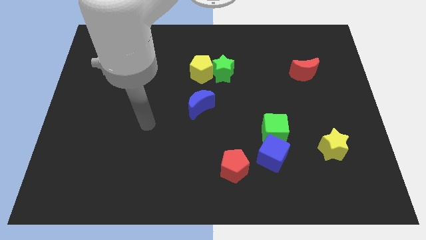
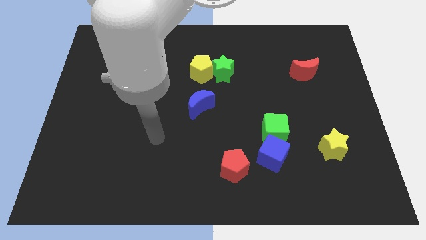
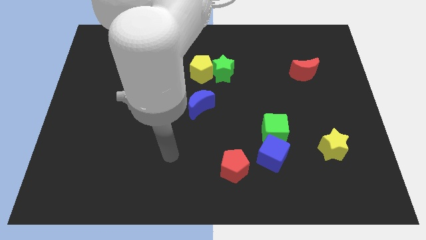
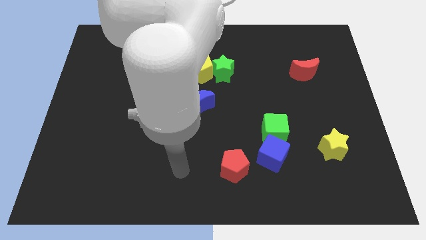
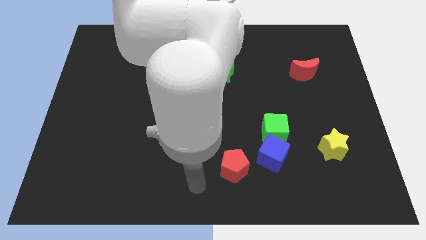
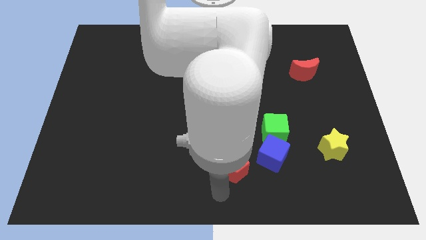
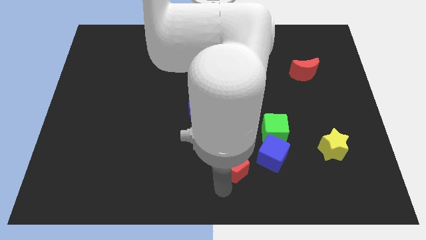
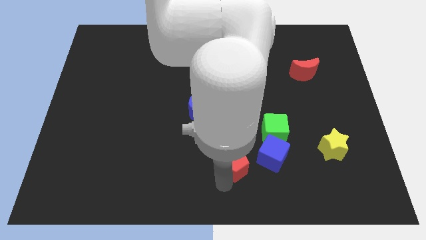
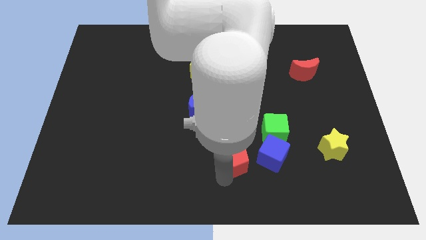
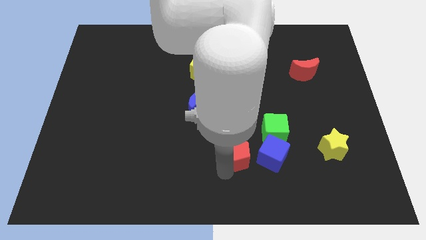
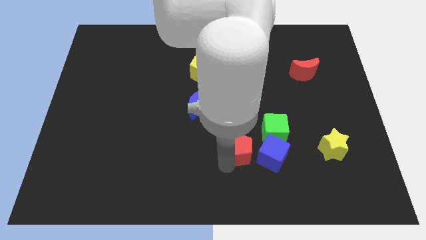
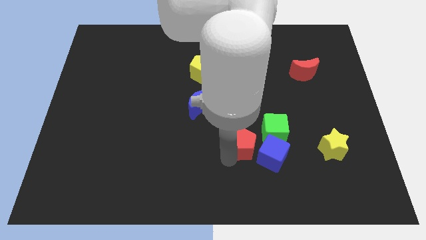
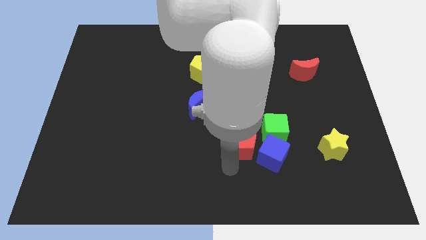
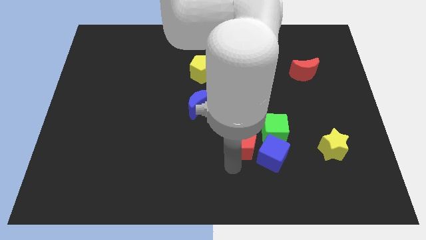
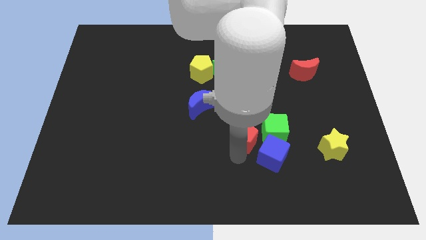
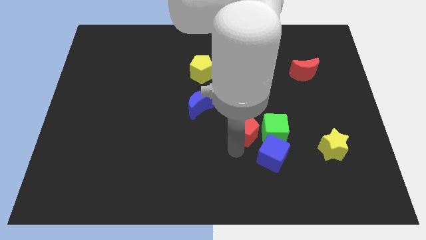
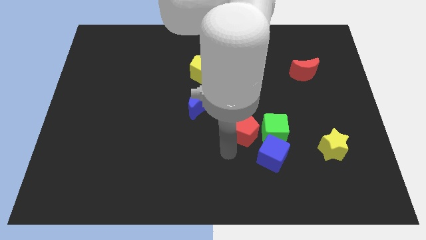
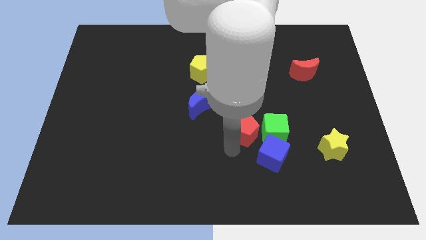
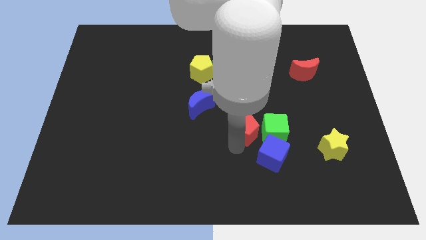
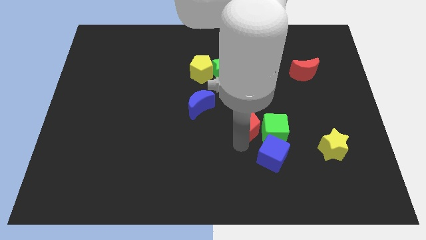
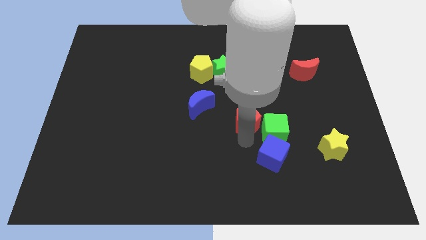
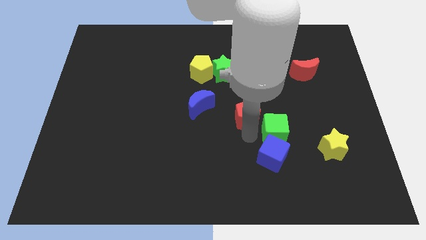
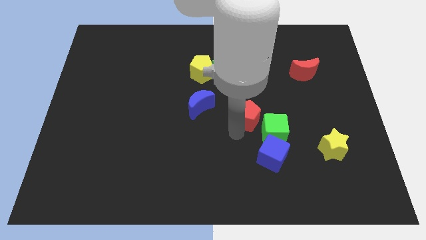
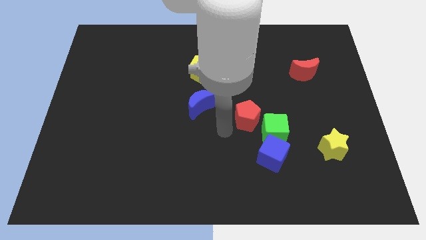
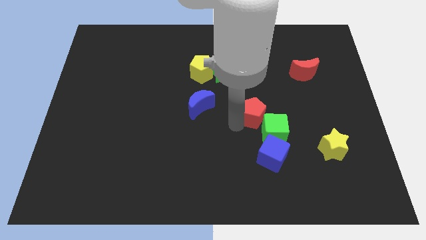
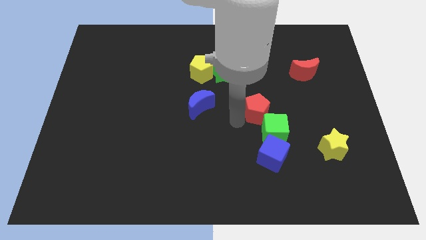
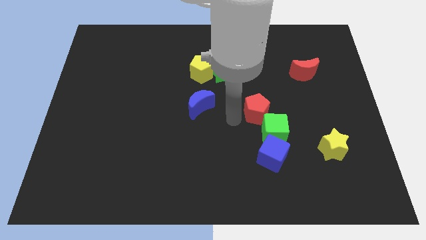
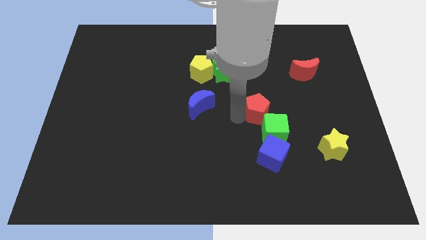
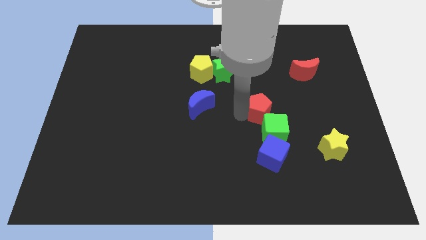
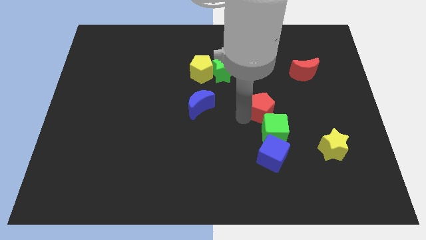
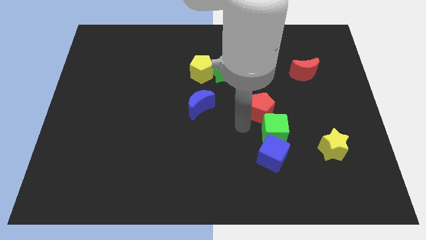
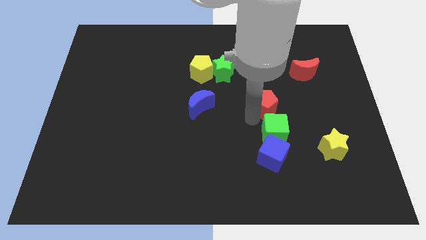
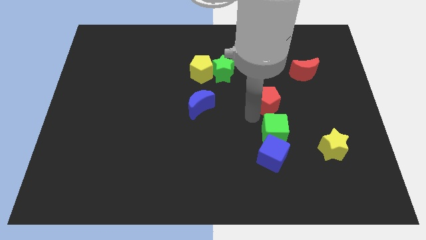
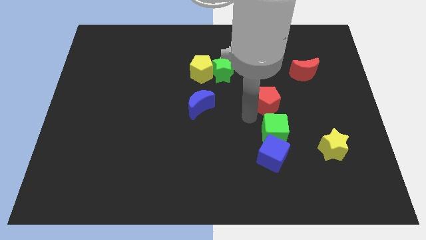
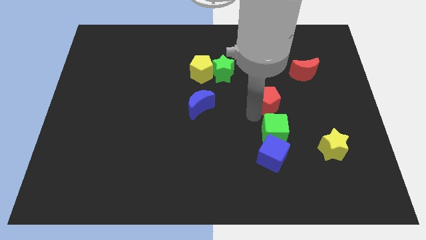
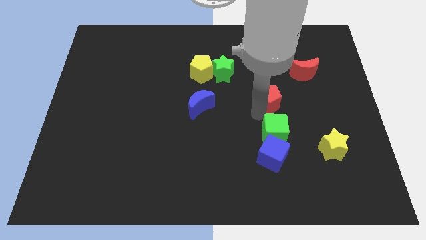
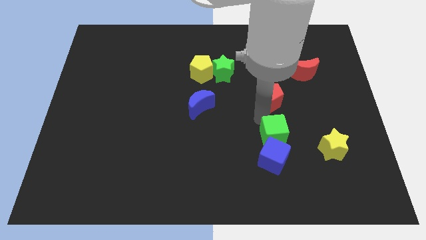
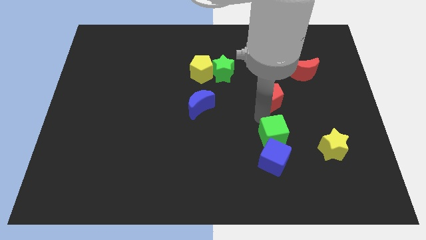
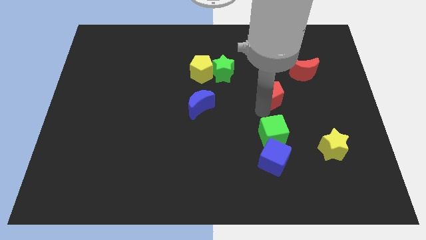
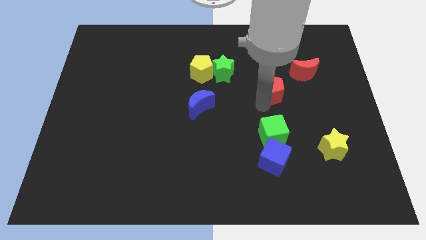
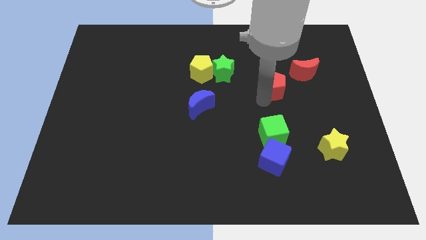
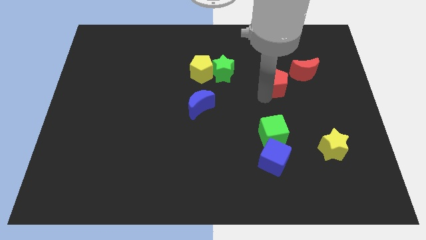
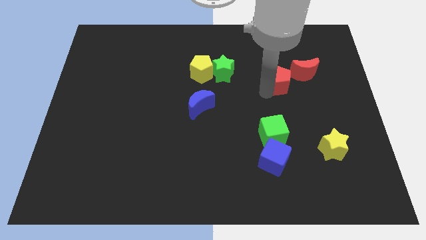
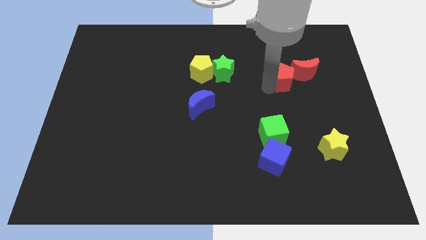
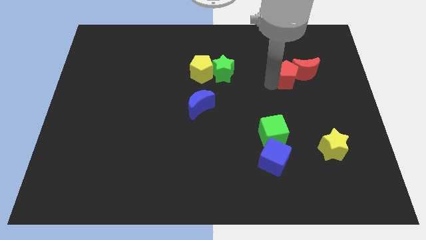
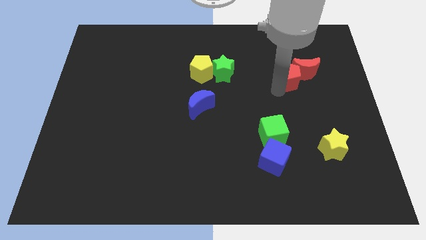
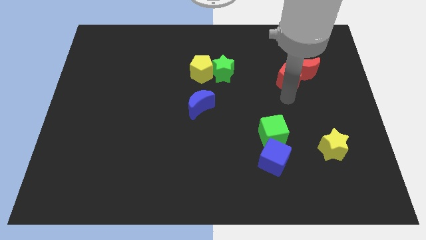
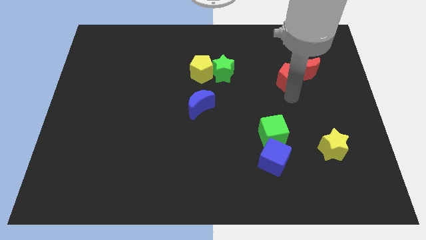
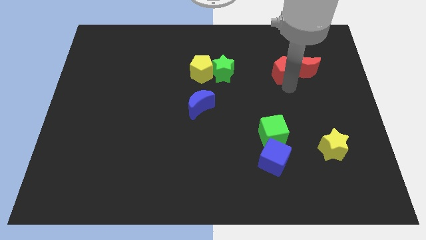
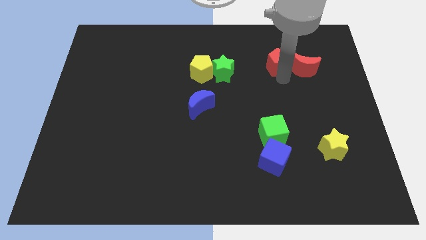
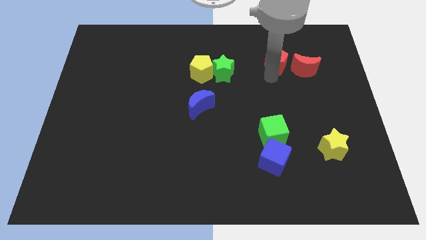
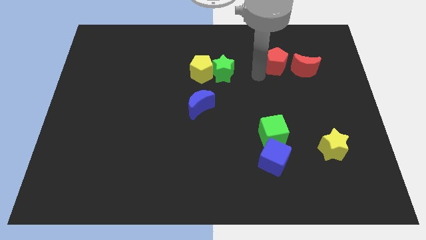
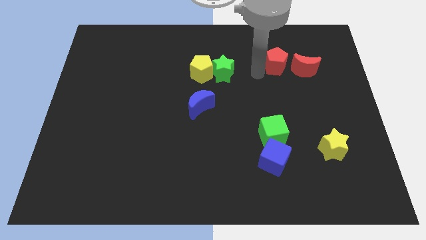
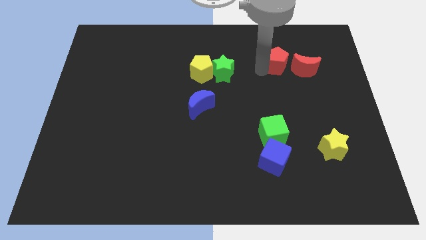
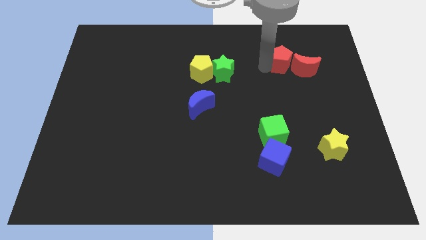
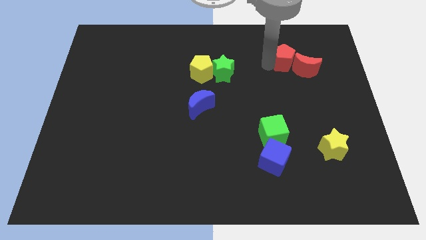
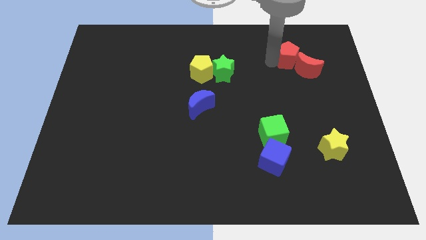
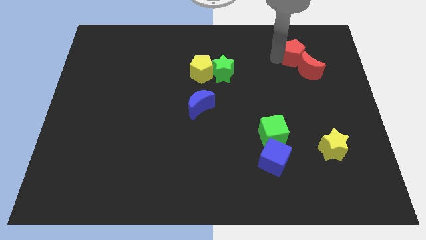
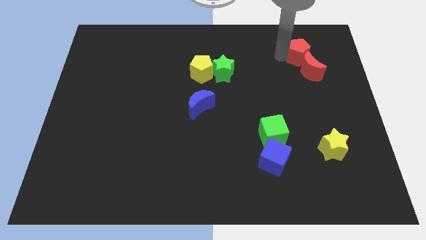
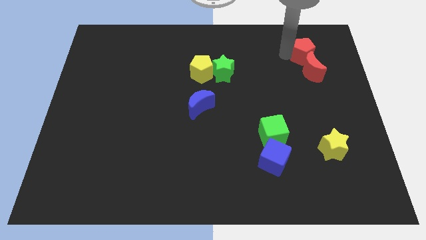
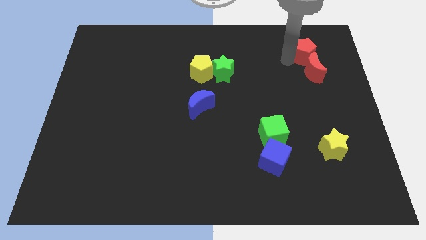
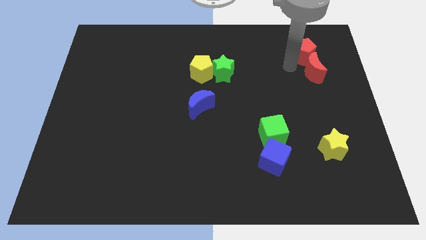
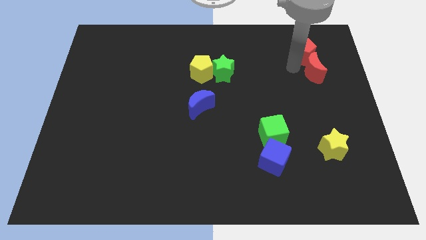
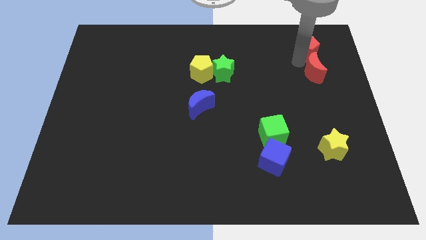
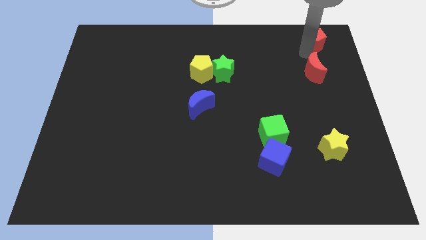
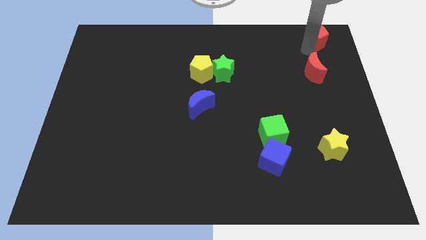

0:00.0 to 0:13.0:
put the red pentagon to the top right corner
